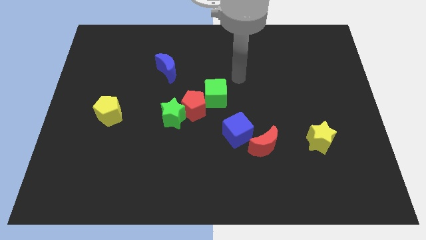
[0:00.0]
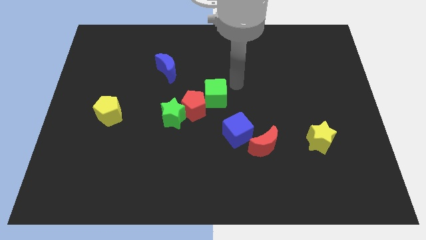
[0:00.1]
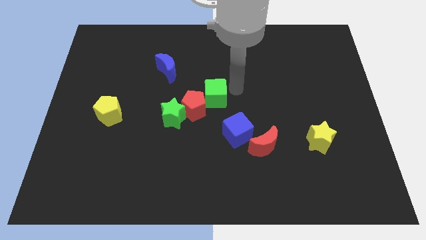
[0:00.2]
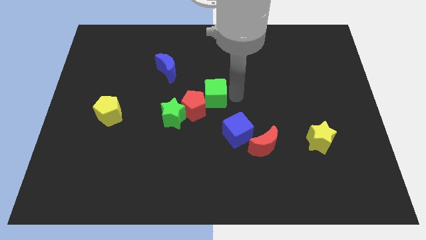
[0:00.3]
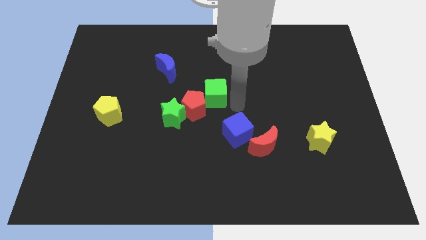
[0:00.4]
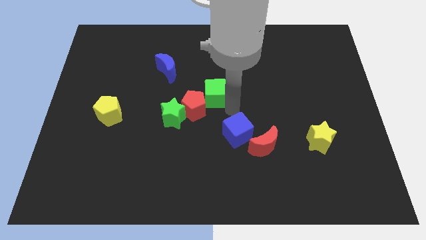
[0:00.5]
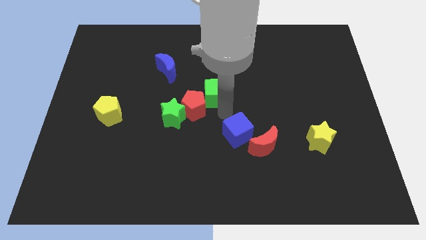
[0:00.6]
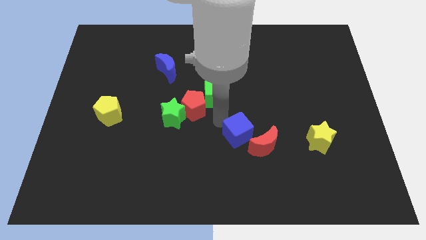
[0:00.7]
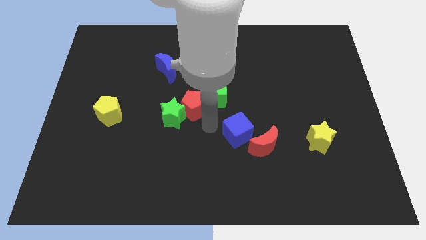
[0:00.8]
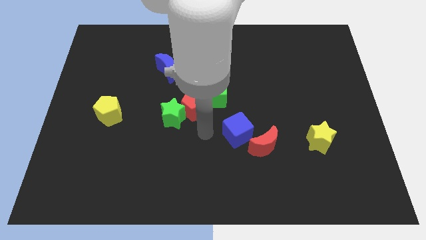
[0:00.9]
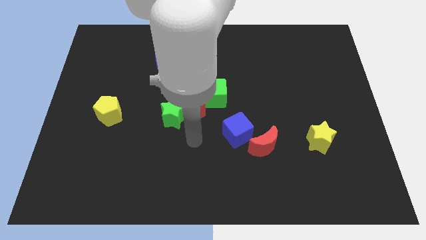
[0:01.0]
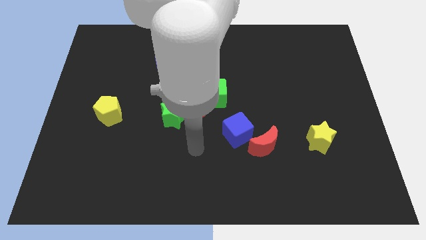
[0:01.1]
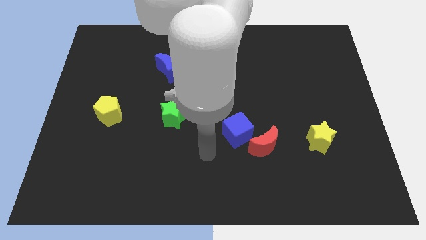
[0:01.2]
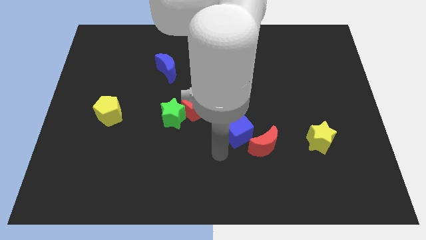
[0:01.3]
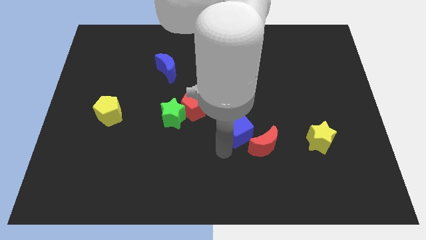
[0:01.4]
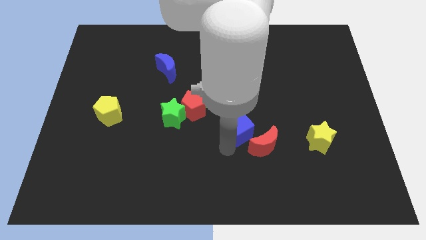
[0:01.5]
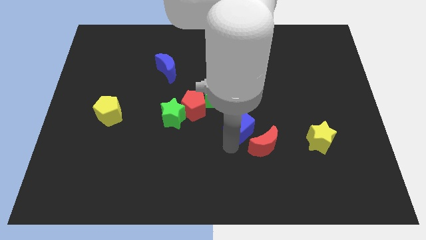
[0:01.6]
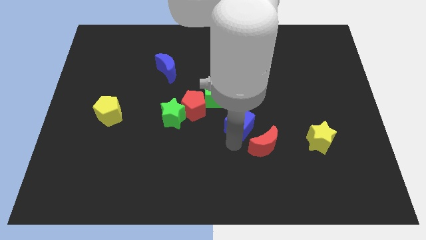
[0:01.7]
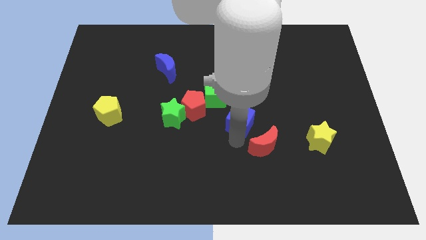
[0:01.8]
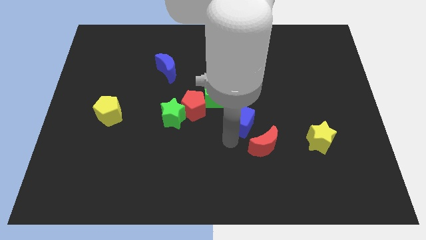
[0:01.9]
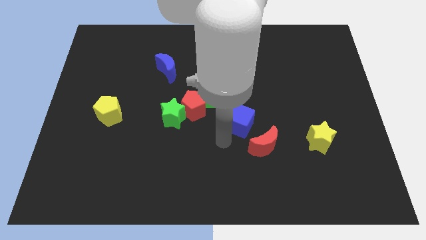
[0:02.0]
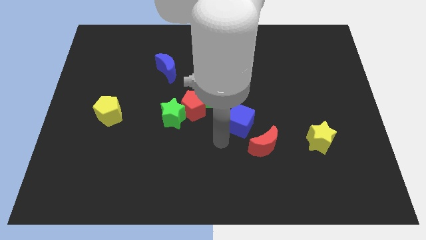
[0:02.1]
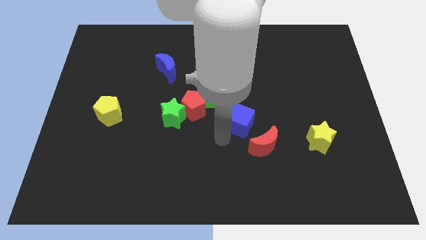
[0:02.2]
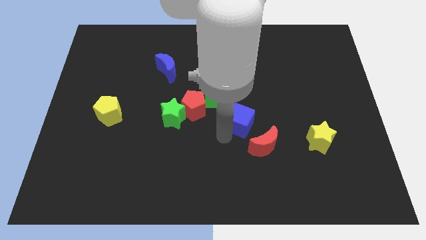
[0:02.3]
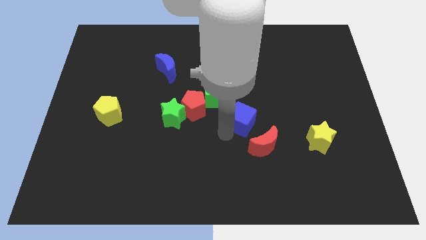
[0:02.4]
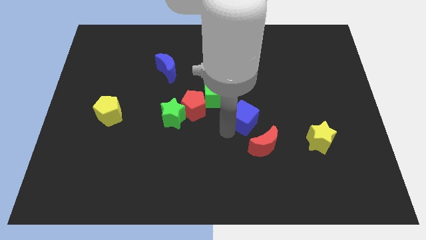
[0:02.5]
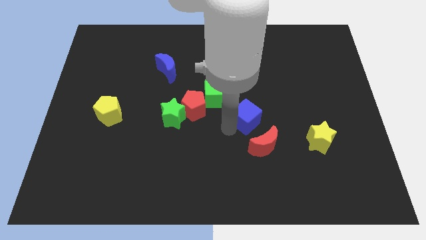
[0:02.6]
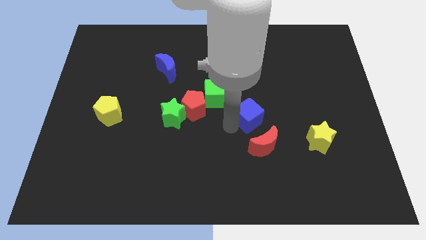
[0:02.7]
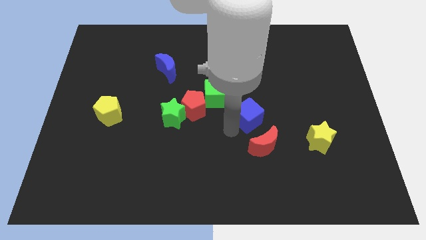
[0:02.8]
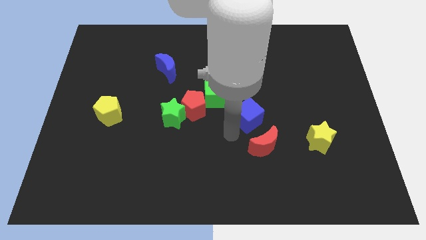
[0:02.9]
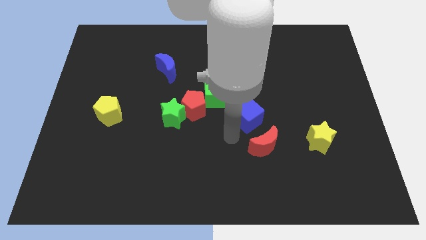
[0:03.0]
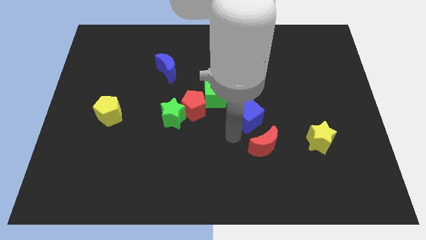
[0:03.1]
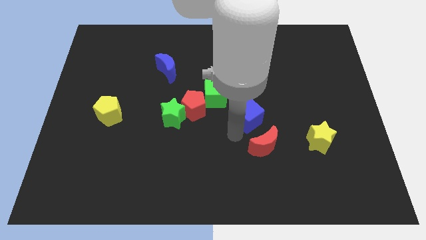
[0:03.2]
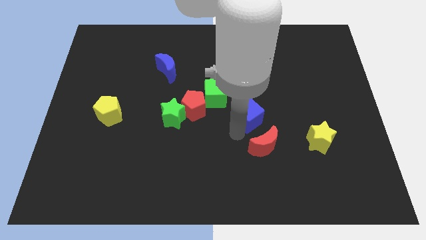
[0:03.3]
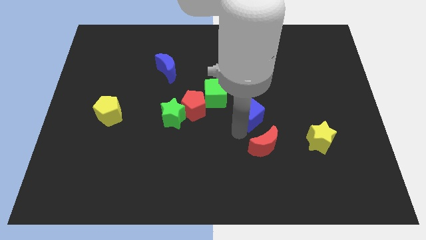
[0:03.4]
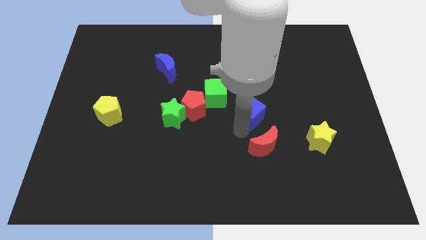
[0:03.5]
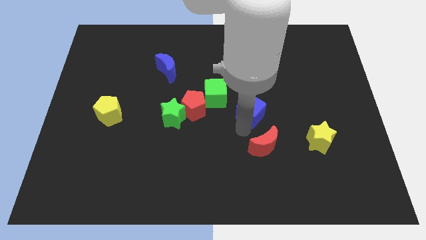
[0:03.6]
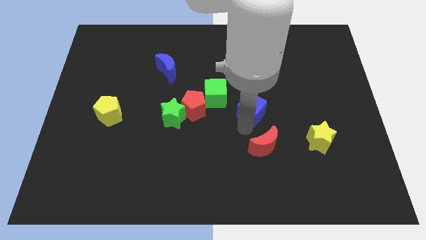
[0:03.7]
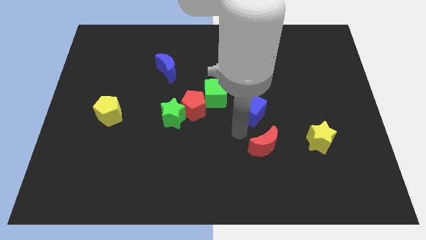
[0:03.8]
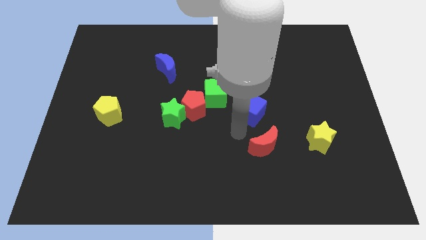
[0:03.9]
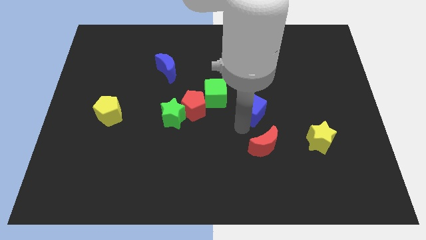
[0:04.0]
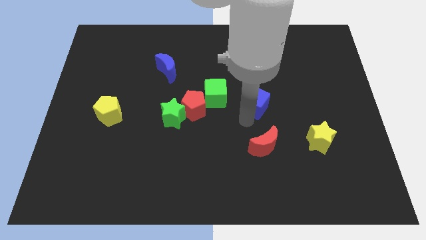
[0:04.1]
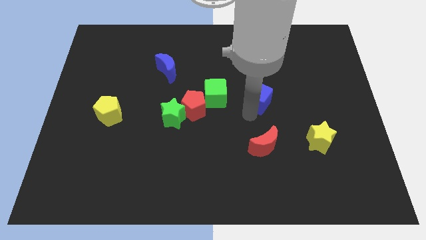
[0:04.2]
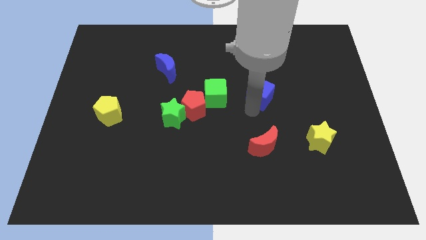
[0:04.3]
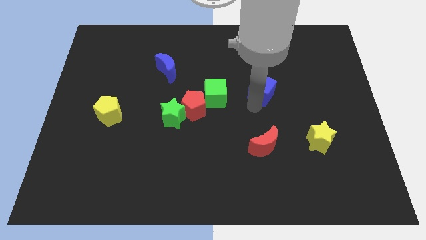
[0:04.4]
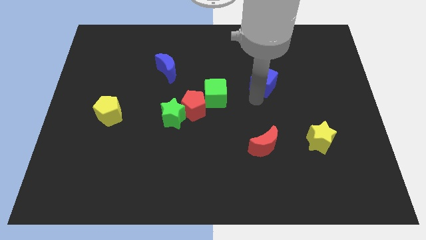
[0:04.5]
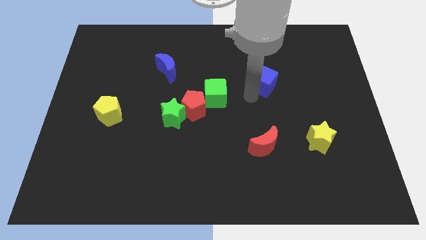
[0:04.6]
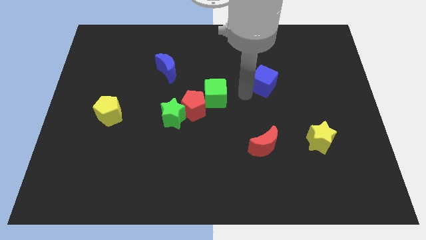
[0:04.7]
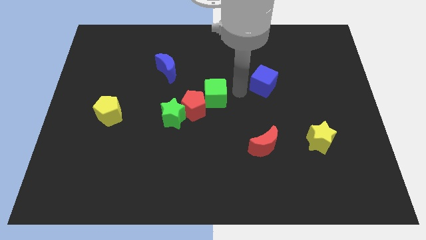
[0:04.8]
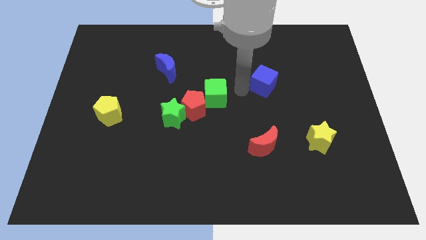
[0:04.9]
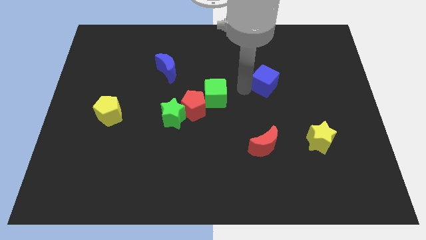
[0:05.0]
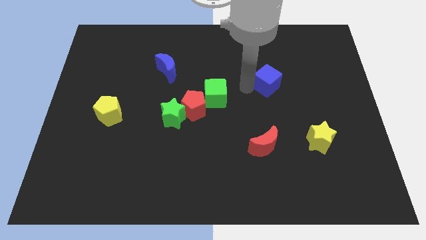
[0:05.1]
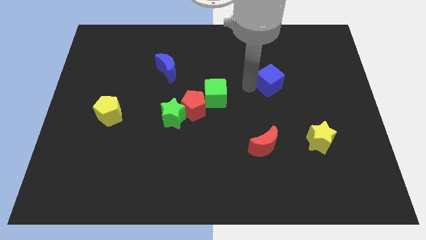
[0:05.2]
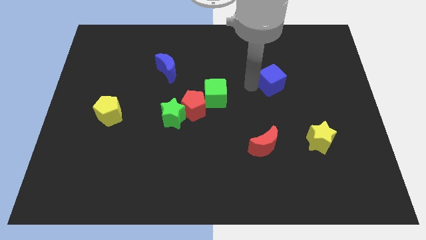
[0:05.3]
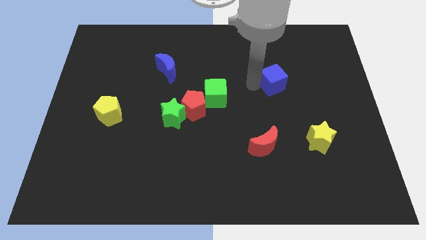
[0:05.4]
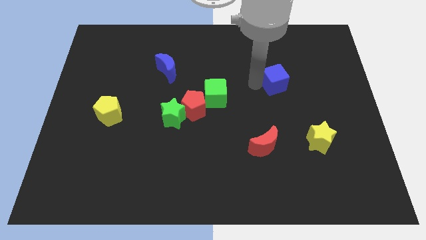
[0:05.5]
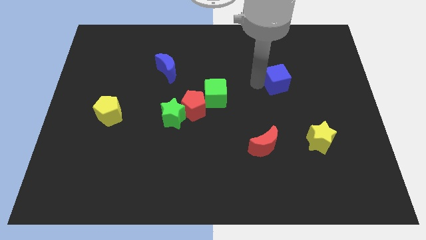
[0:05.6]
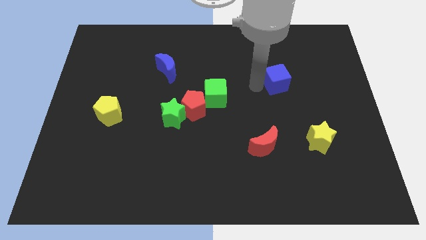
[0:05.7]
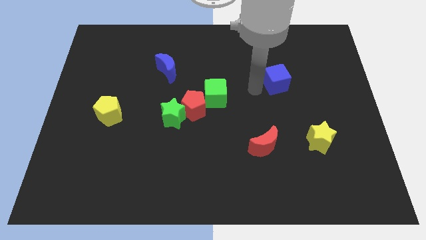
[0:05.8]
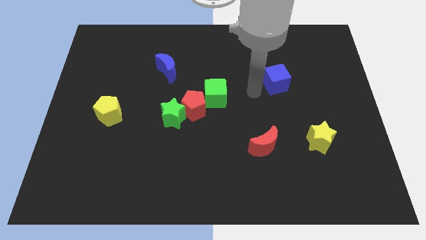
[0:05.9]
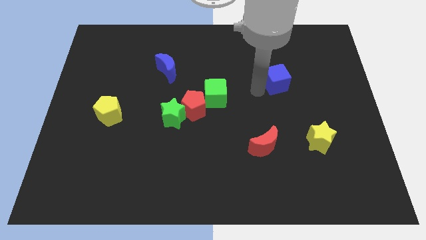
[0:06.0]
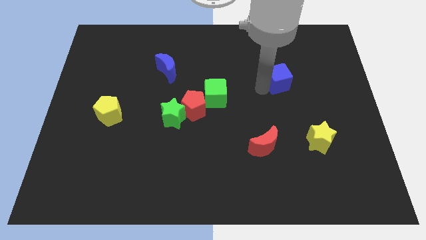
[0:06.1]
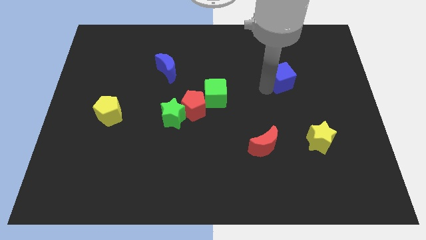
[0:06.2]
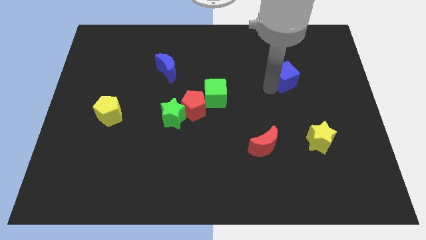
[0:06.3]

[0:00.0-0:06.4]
slide the blue cube up and then right

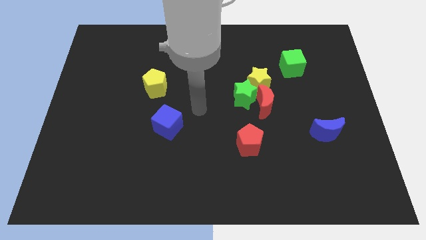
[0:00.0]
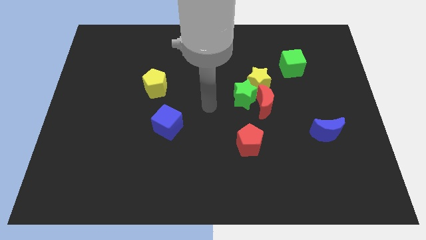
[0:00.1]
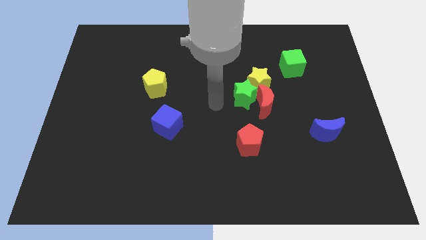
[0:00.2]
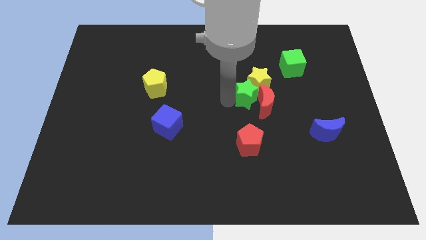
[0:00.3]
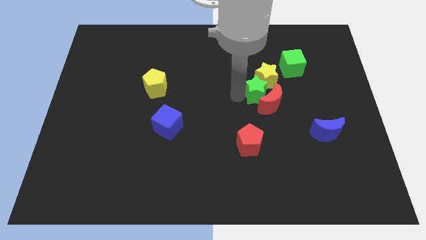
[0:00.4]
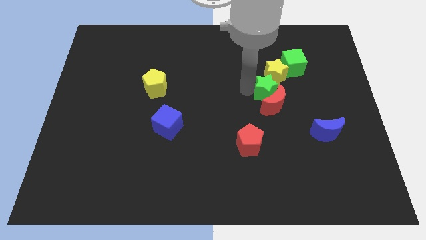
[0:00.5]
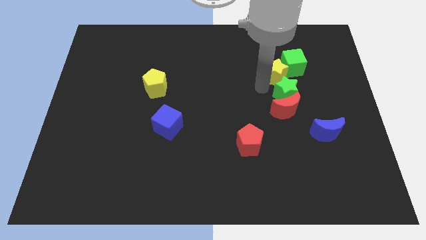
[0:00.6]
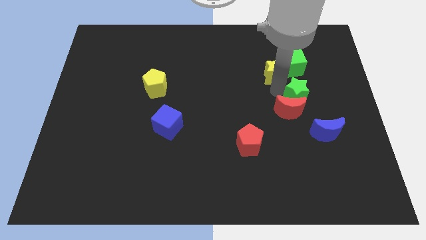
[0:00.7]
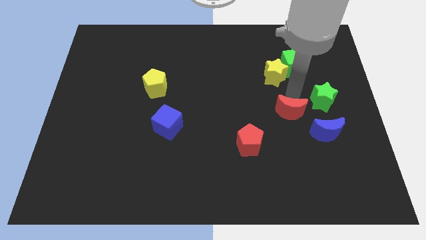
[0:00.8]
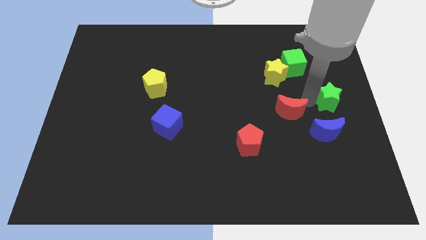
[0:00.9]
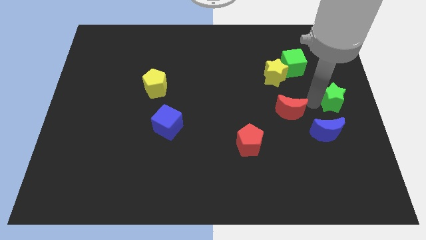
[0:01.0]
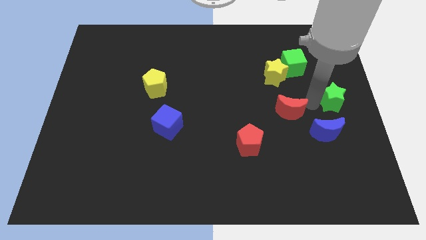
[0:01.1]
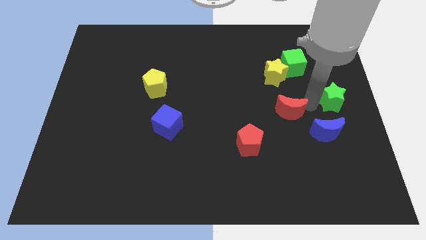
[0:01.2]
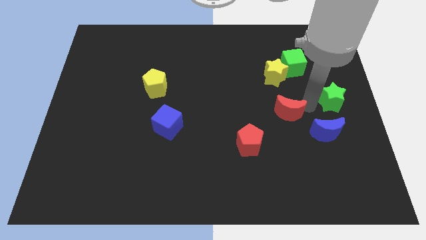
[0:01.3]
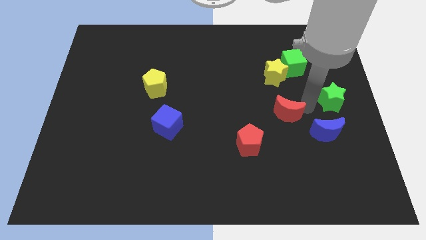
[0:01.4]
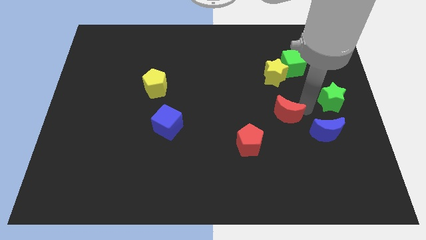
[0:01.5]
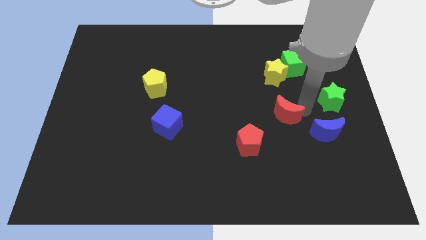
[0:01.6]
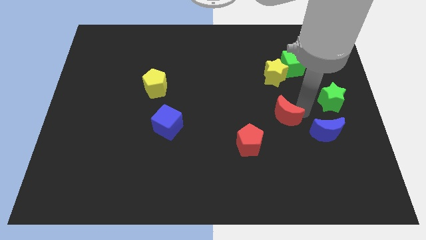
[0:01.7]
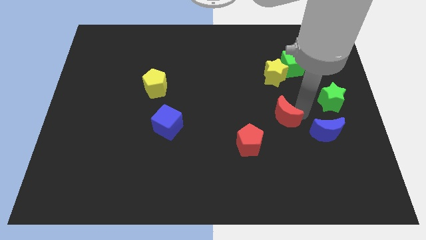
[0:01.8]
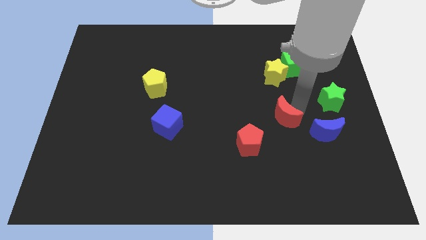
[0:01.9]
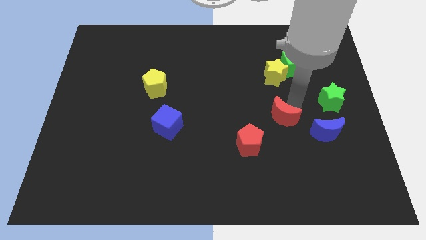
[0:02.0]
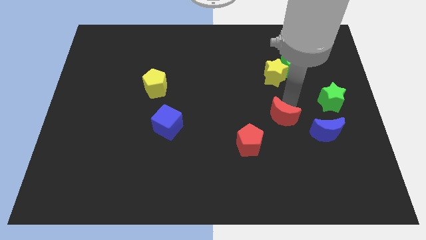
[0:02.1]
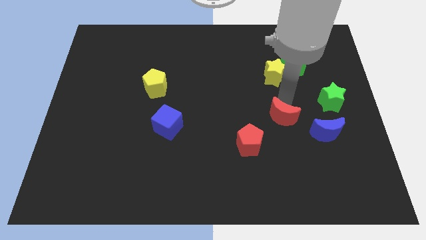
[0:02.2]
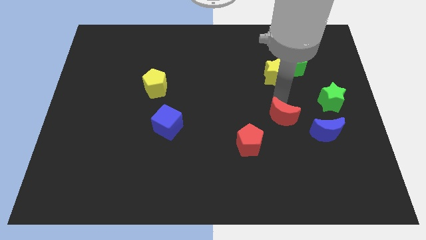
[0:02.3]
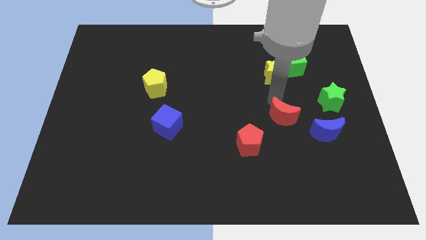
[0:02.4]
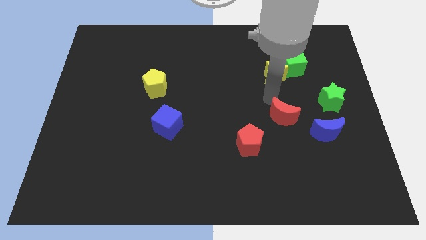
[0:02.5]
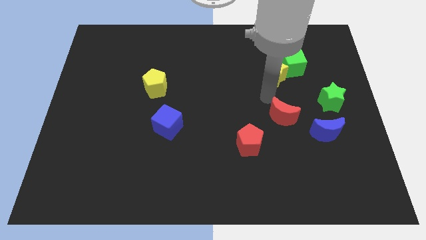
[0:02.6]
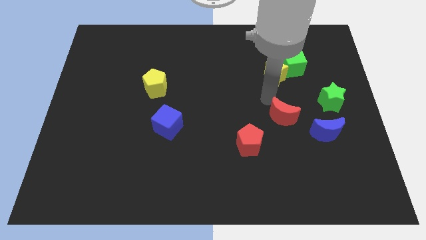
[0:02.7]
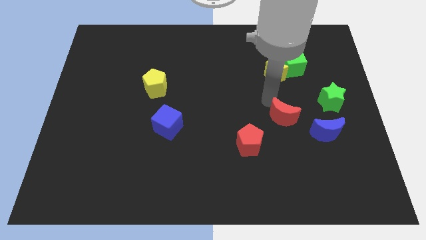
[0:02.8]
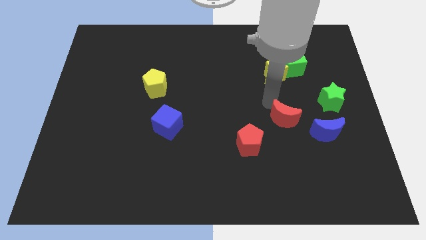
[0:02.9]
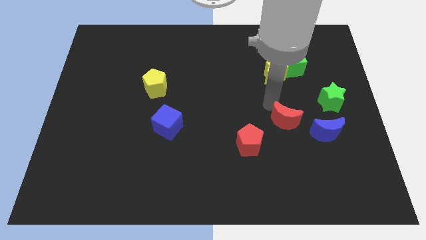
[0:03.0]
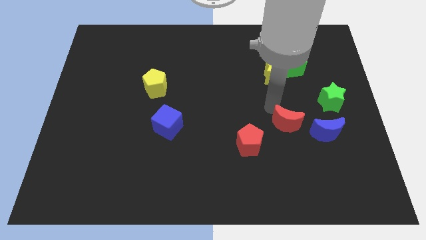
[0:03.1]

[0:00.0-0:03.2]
push the red moon down and then right slightly
